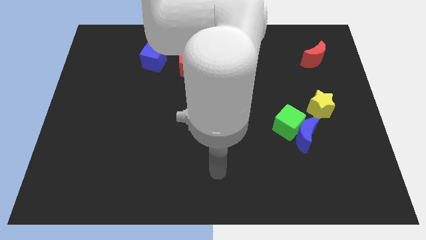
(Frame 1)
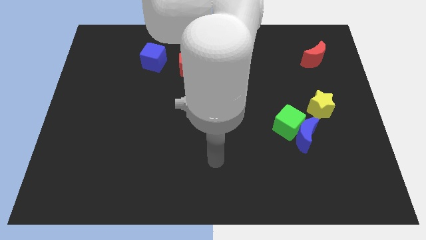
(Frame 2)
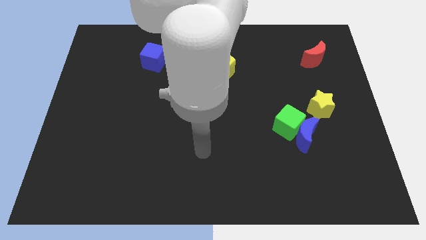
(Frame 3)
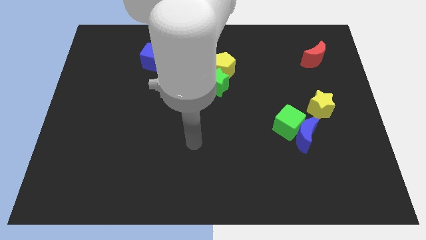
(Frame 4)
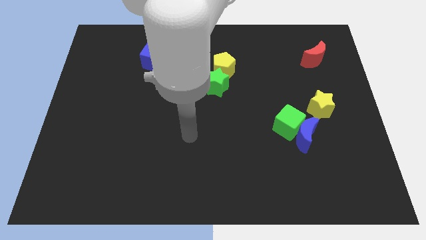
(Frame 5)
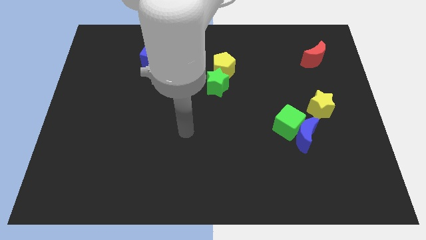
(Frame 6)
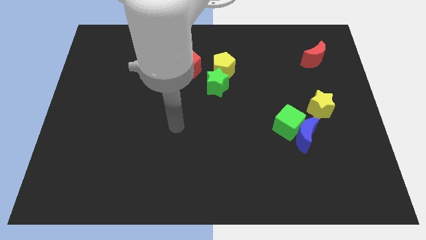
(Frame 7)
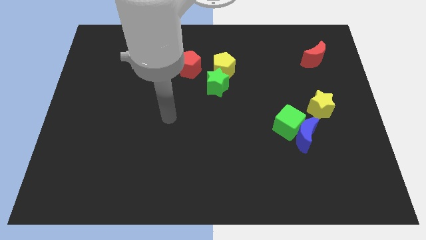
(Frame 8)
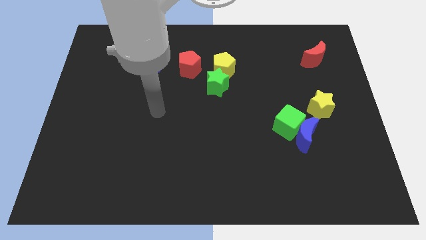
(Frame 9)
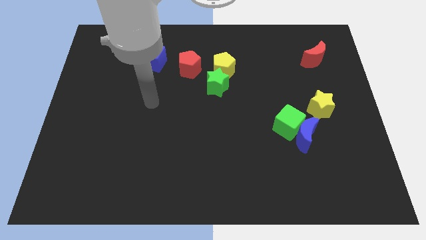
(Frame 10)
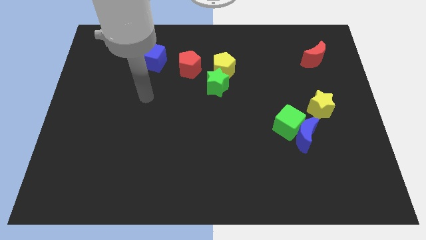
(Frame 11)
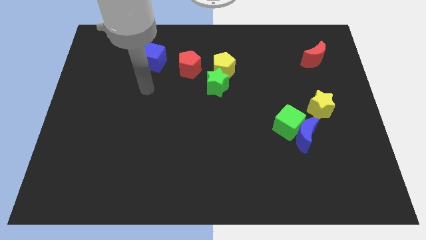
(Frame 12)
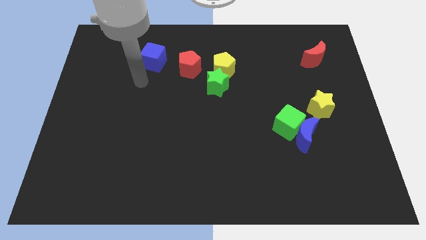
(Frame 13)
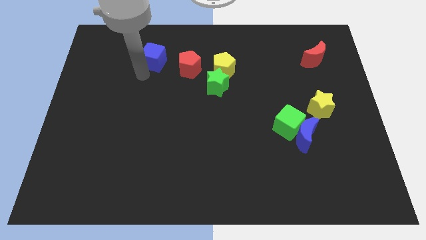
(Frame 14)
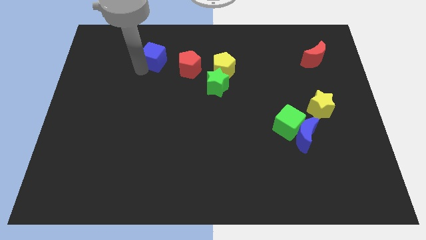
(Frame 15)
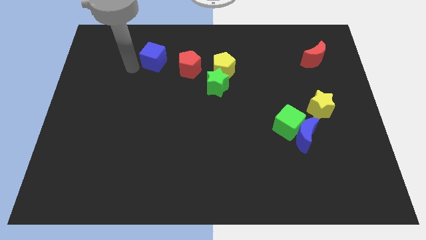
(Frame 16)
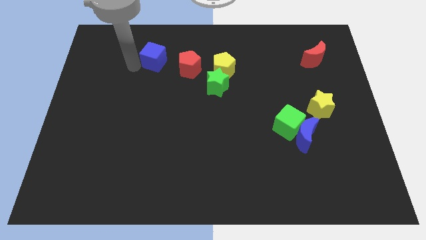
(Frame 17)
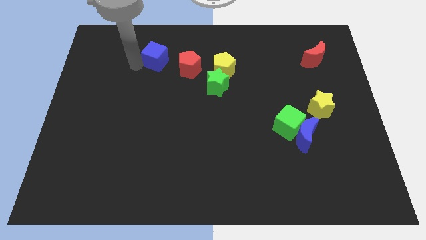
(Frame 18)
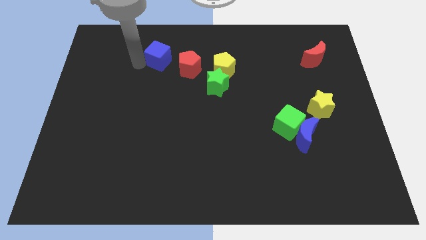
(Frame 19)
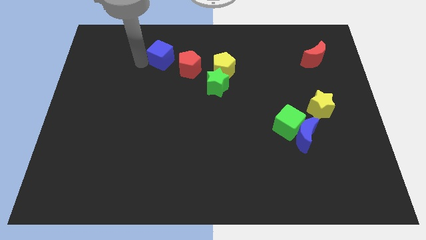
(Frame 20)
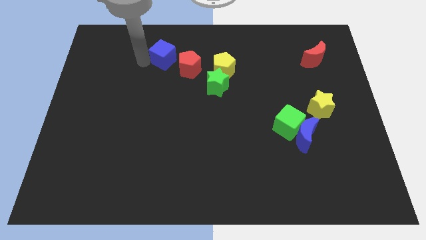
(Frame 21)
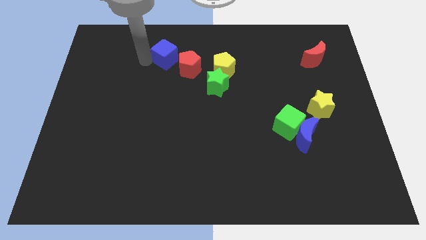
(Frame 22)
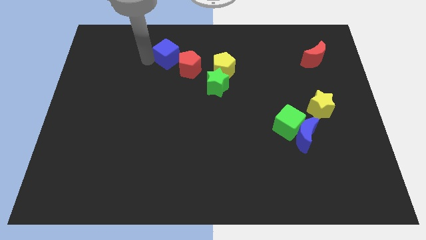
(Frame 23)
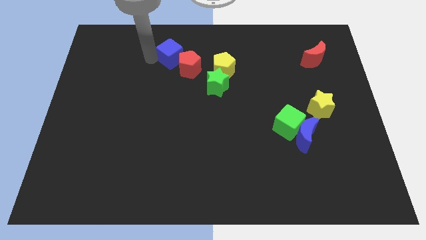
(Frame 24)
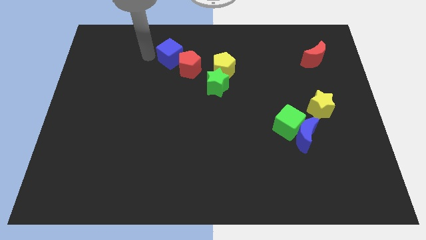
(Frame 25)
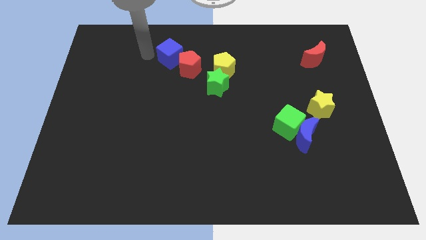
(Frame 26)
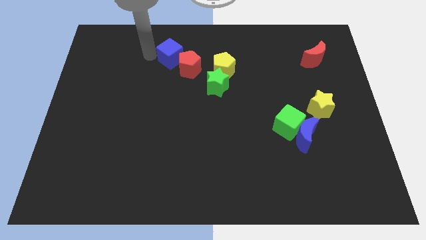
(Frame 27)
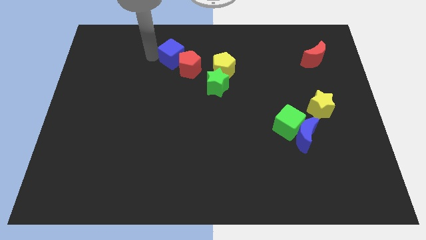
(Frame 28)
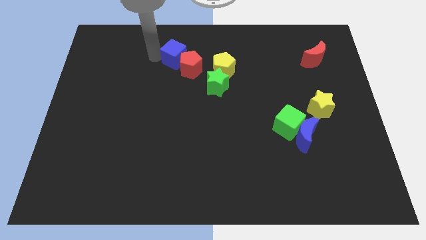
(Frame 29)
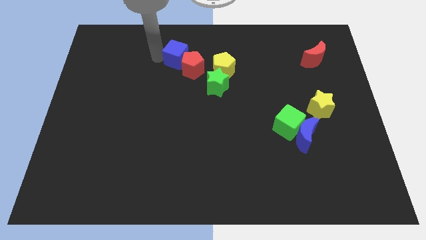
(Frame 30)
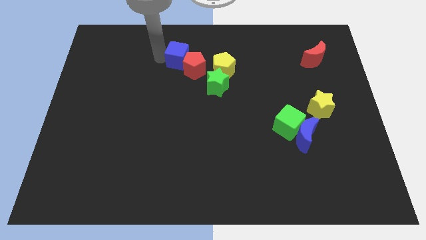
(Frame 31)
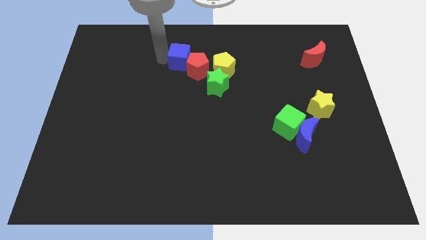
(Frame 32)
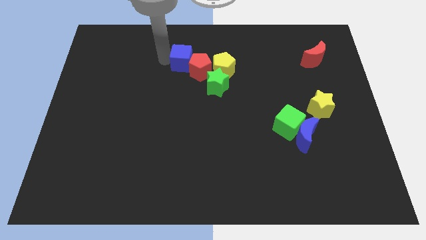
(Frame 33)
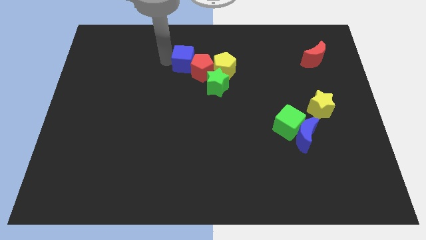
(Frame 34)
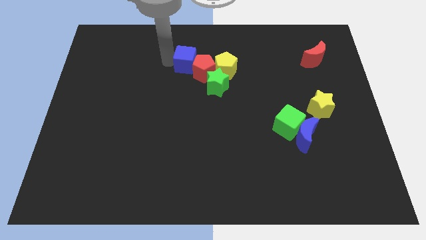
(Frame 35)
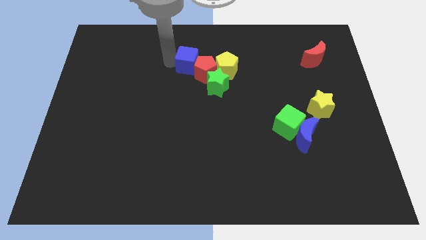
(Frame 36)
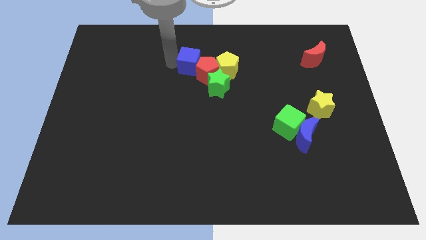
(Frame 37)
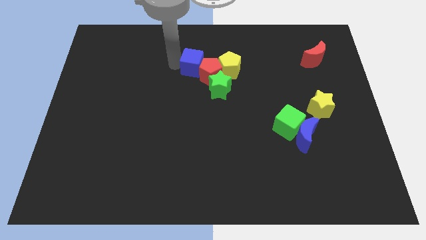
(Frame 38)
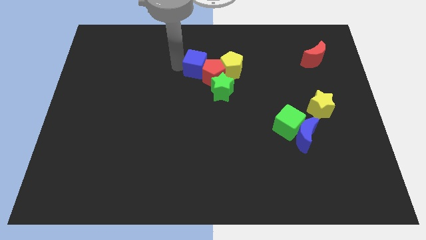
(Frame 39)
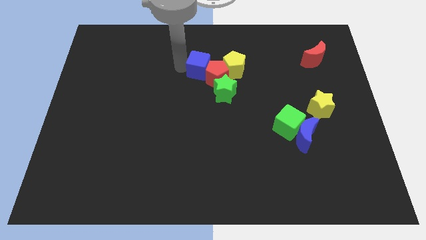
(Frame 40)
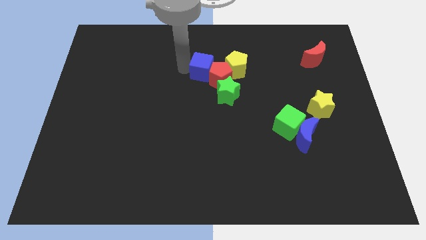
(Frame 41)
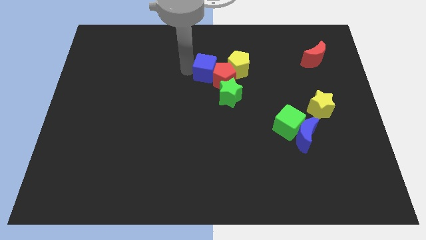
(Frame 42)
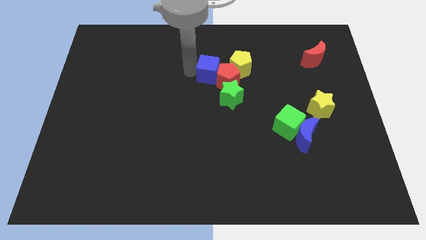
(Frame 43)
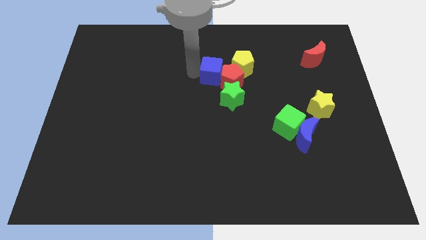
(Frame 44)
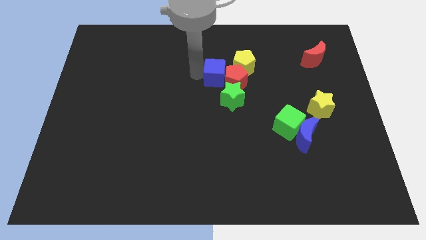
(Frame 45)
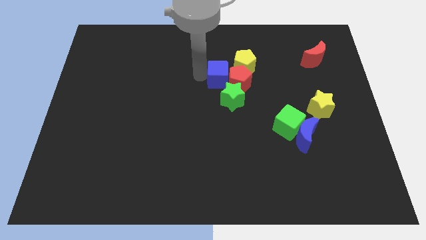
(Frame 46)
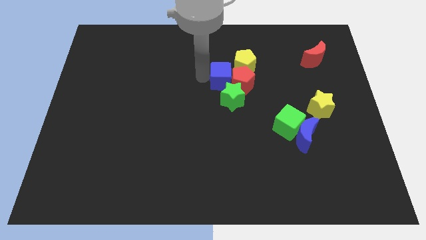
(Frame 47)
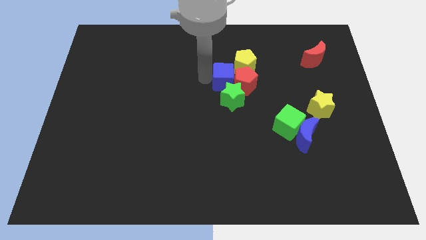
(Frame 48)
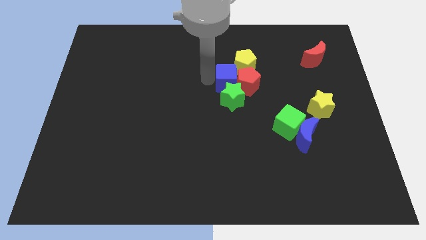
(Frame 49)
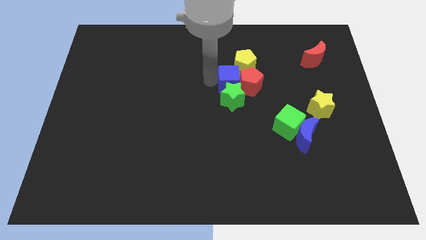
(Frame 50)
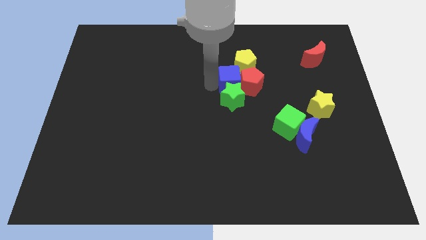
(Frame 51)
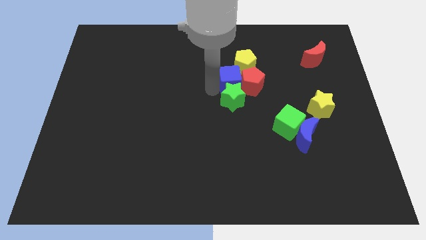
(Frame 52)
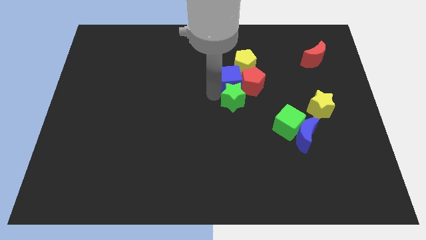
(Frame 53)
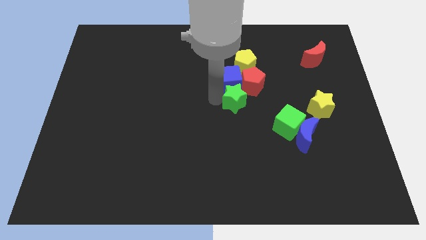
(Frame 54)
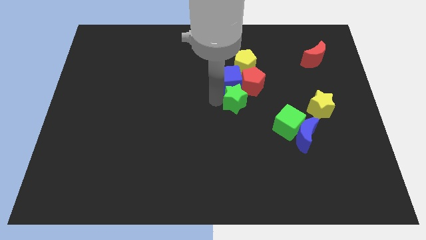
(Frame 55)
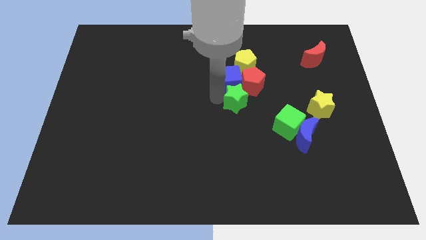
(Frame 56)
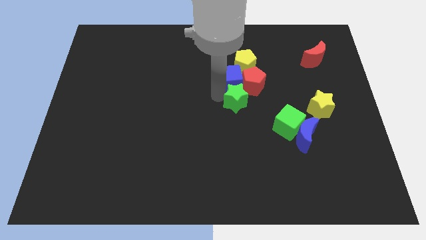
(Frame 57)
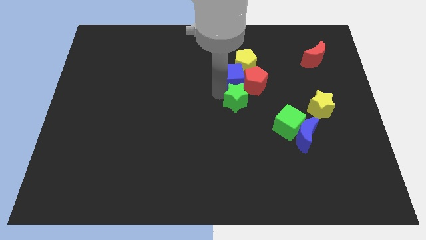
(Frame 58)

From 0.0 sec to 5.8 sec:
put the blue cube to the yellow pentagon

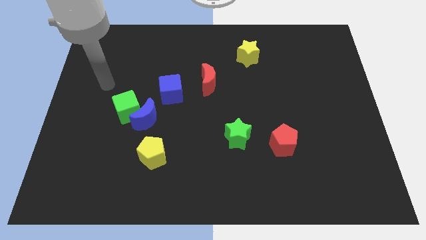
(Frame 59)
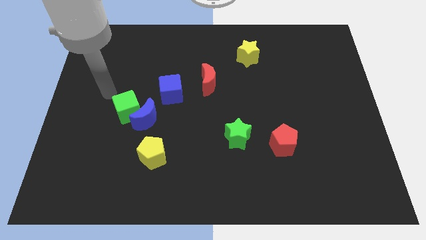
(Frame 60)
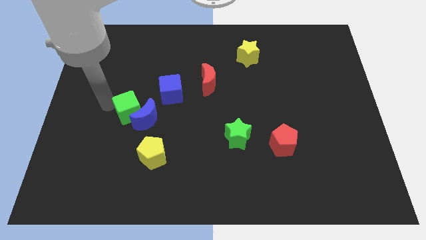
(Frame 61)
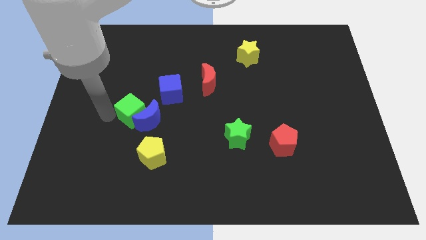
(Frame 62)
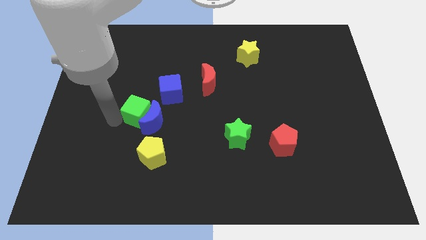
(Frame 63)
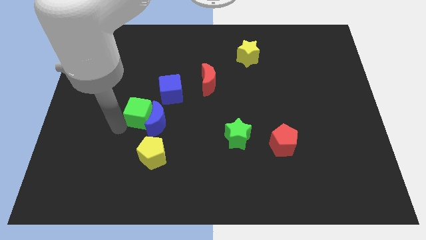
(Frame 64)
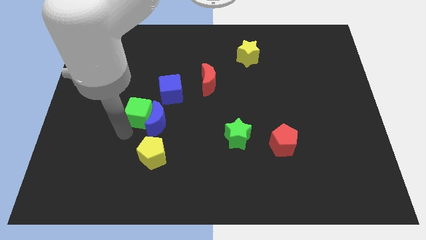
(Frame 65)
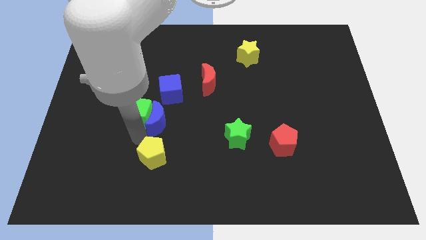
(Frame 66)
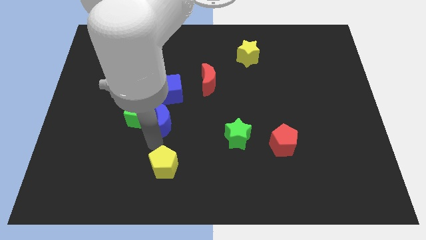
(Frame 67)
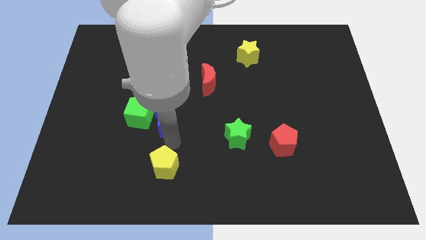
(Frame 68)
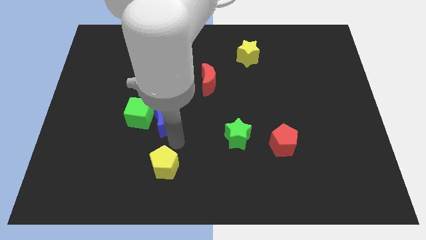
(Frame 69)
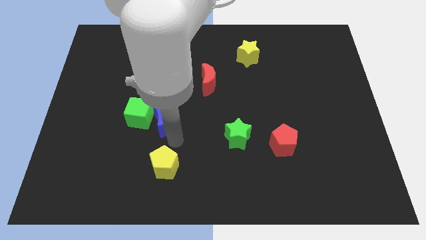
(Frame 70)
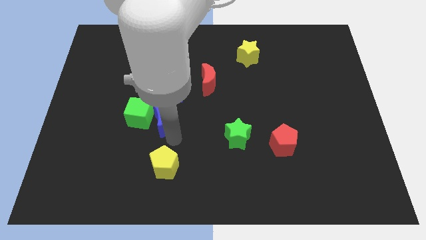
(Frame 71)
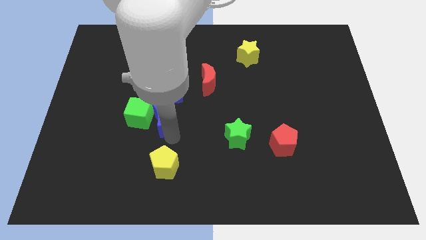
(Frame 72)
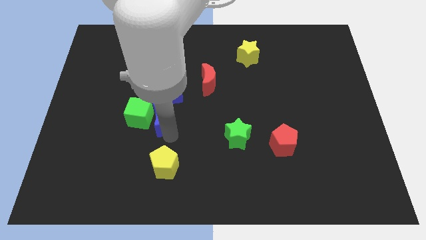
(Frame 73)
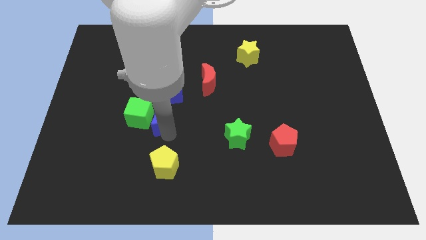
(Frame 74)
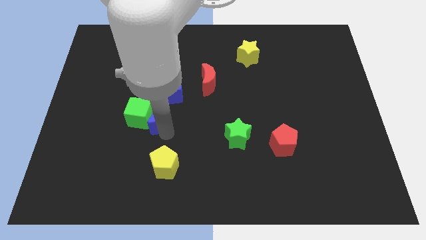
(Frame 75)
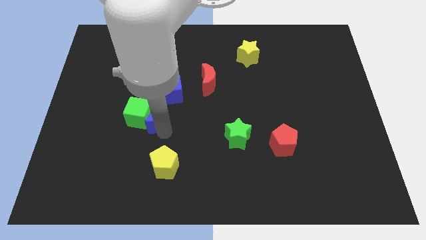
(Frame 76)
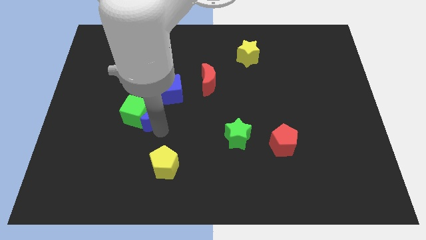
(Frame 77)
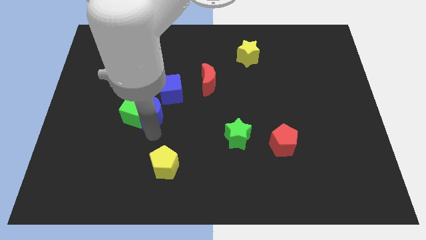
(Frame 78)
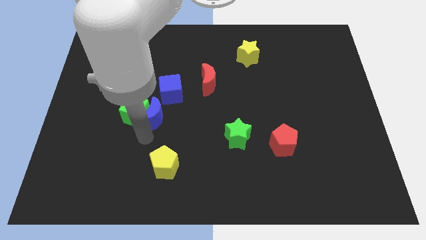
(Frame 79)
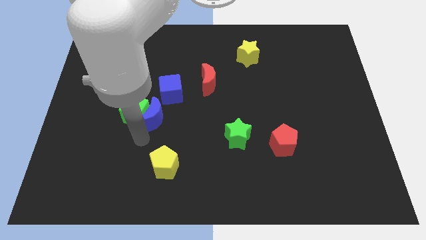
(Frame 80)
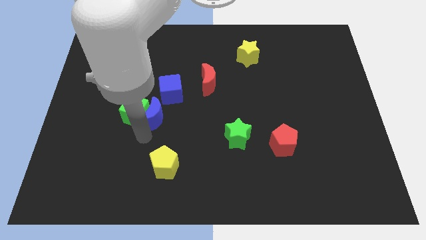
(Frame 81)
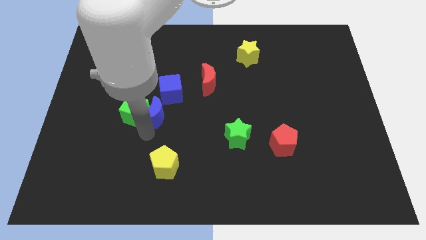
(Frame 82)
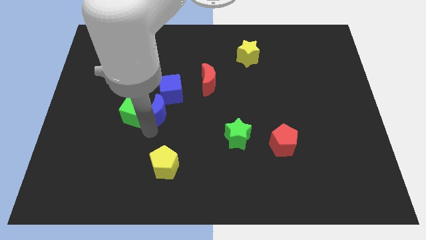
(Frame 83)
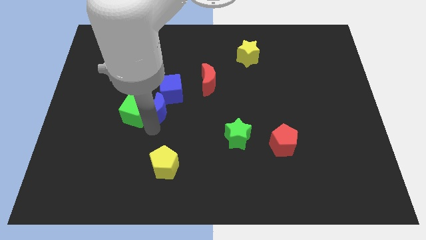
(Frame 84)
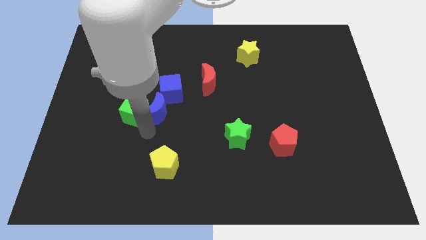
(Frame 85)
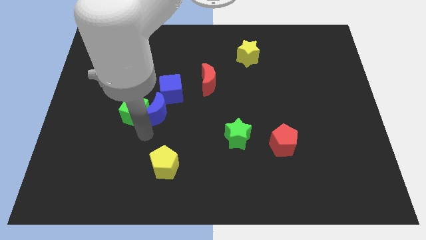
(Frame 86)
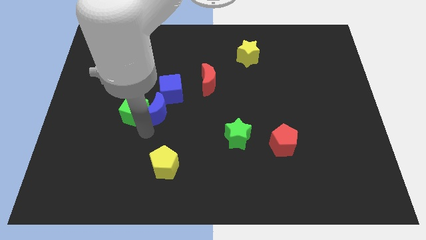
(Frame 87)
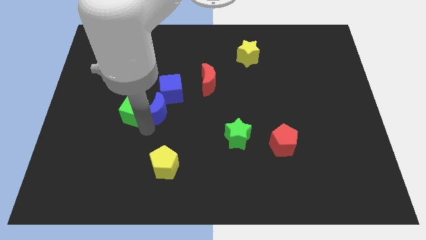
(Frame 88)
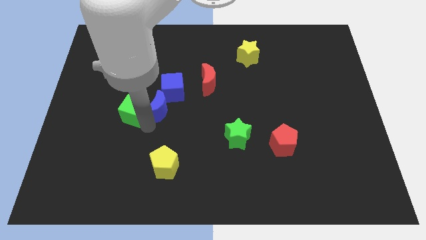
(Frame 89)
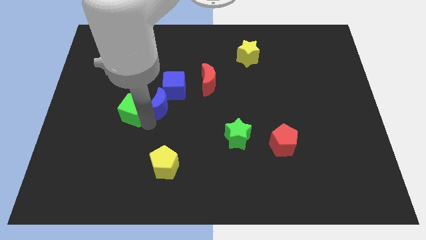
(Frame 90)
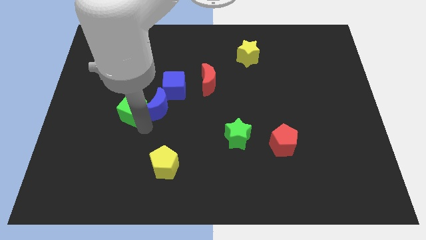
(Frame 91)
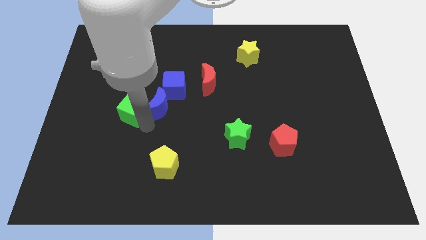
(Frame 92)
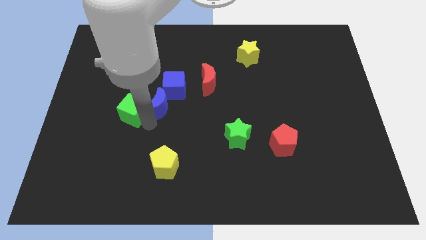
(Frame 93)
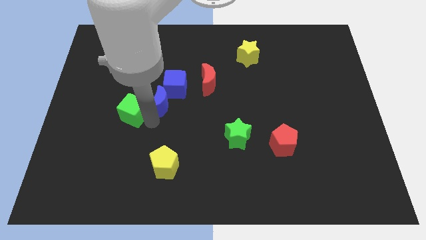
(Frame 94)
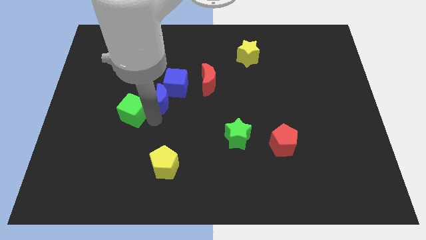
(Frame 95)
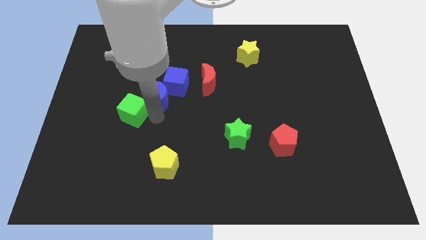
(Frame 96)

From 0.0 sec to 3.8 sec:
move the blue moon to the blue cube
